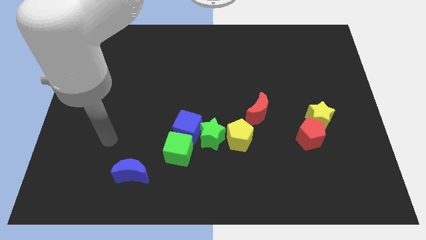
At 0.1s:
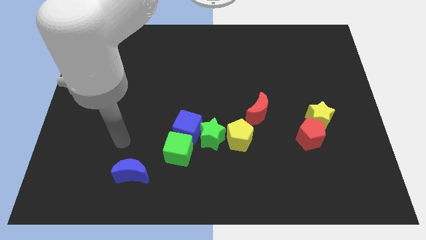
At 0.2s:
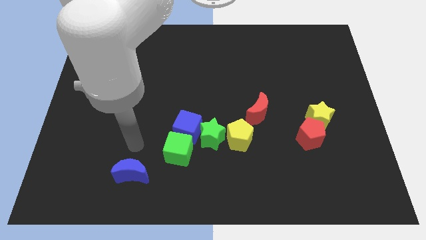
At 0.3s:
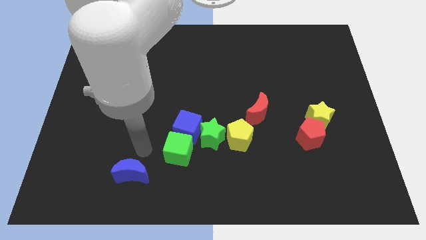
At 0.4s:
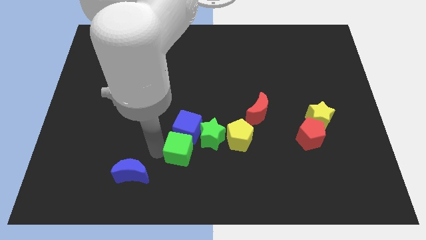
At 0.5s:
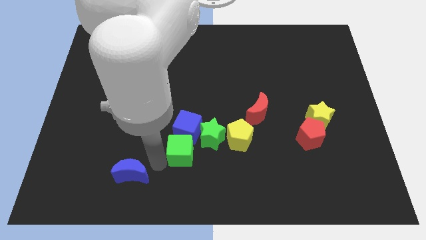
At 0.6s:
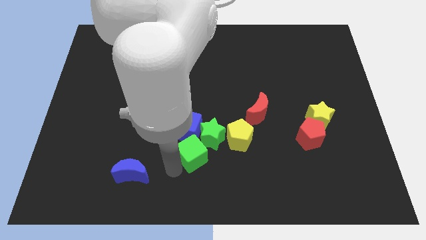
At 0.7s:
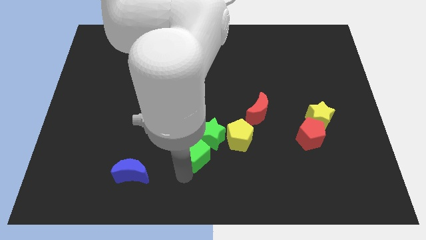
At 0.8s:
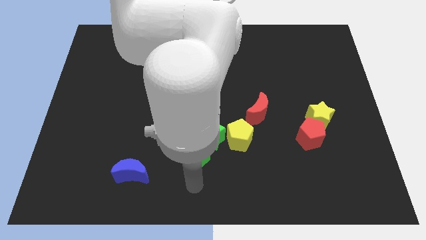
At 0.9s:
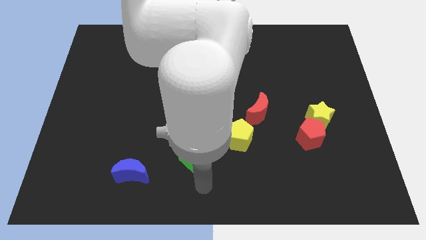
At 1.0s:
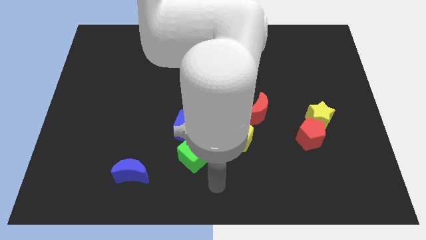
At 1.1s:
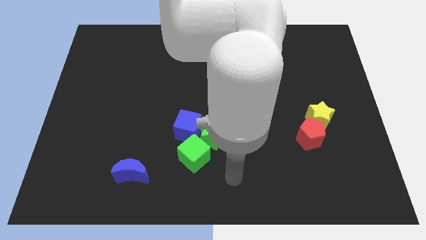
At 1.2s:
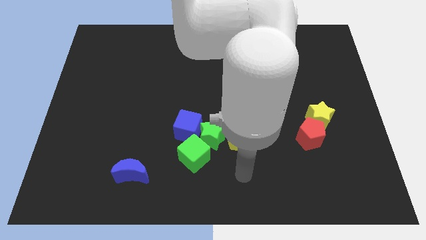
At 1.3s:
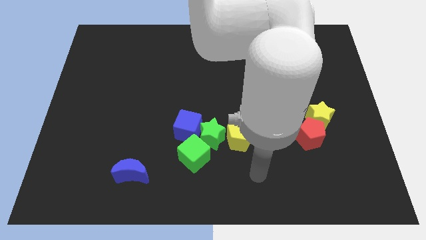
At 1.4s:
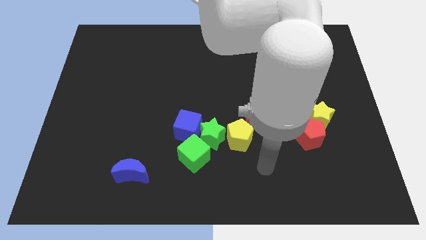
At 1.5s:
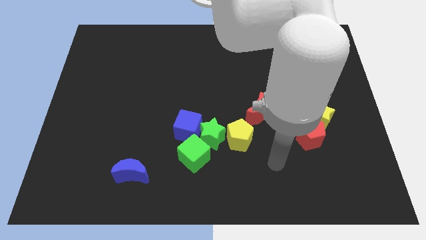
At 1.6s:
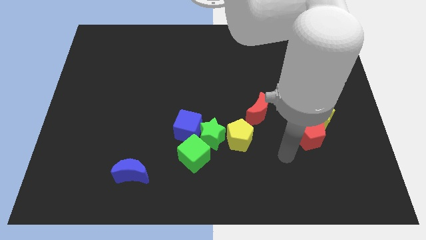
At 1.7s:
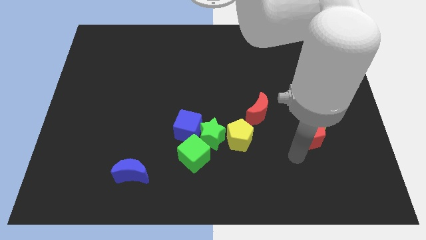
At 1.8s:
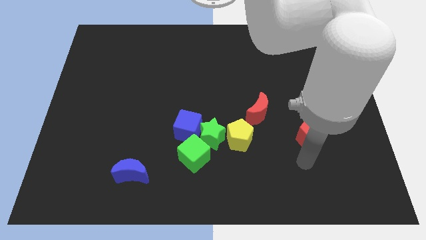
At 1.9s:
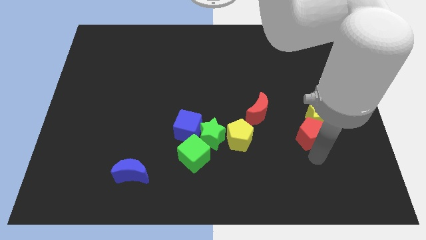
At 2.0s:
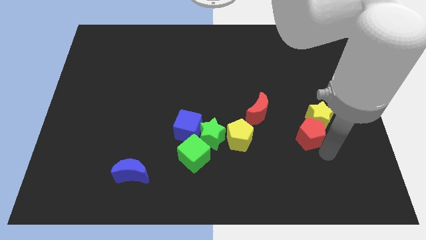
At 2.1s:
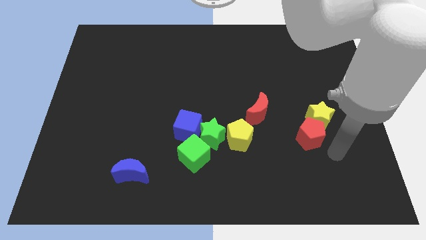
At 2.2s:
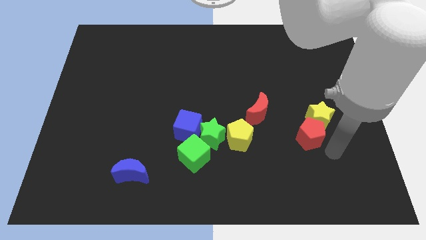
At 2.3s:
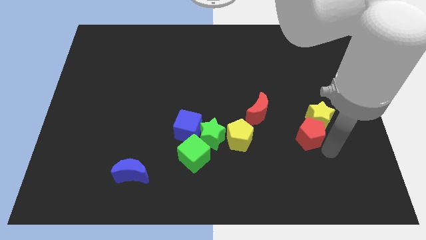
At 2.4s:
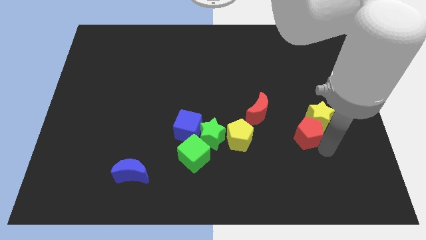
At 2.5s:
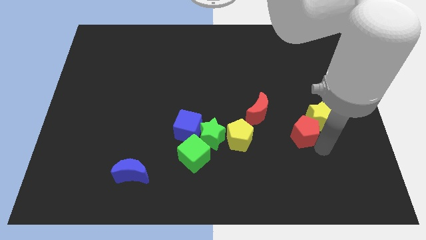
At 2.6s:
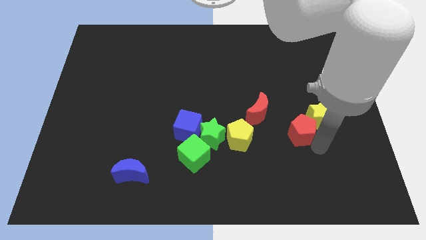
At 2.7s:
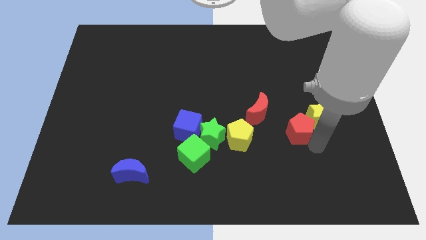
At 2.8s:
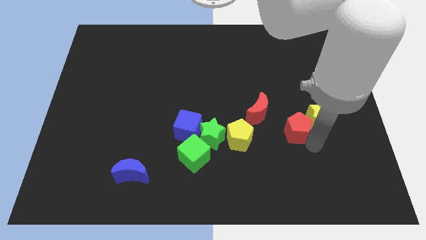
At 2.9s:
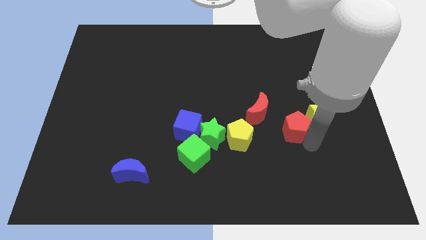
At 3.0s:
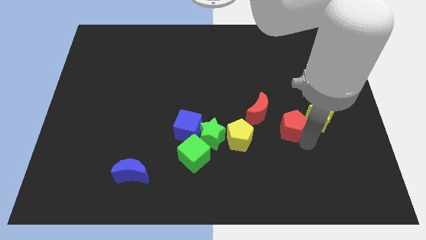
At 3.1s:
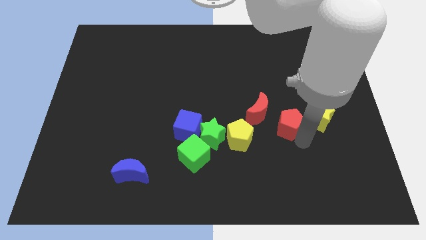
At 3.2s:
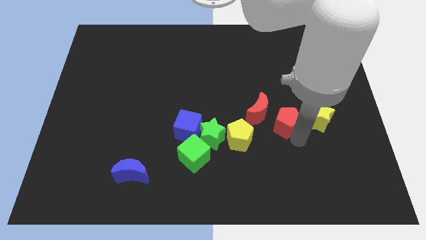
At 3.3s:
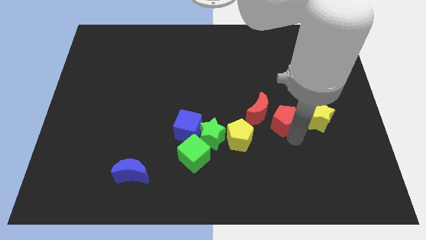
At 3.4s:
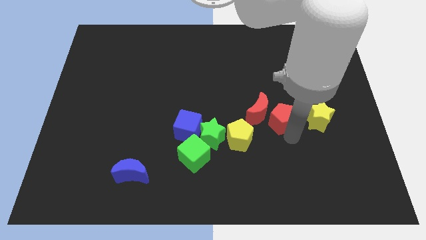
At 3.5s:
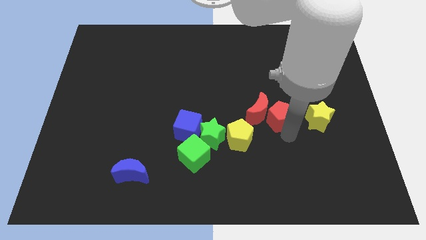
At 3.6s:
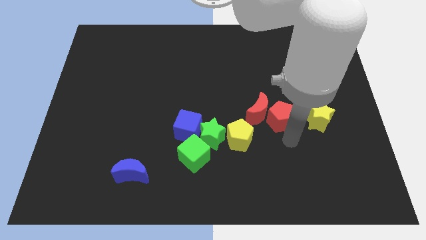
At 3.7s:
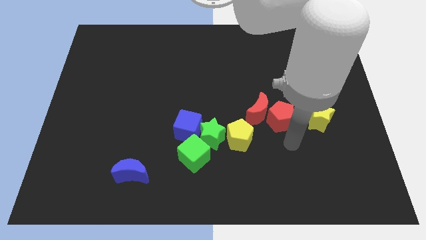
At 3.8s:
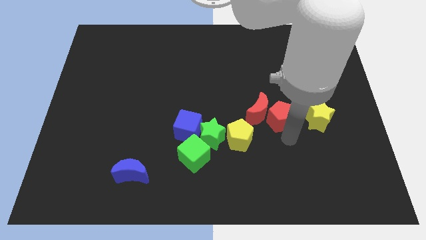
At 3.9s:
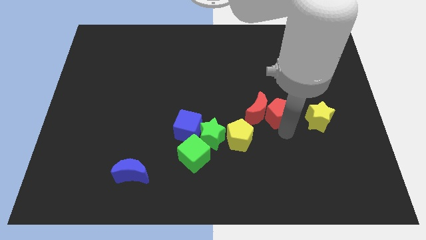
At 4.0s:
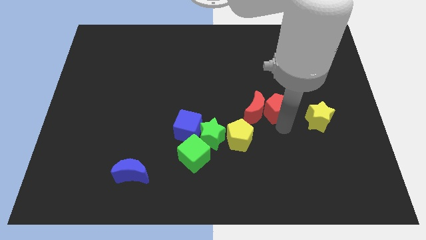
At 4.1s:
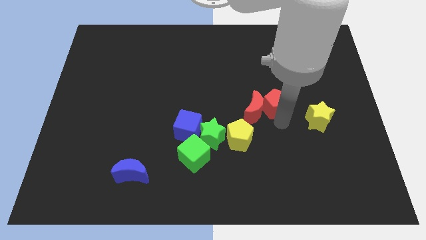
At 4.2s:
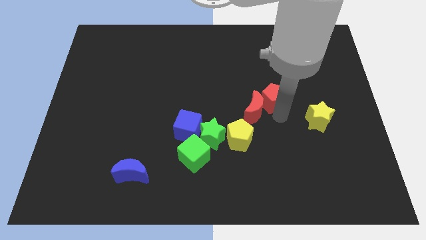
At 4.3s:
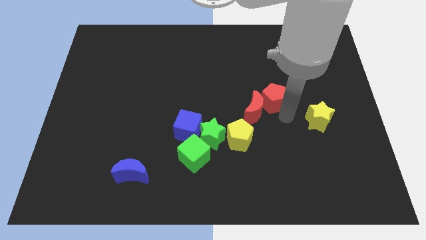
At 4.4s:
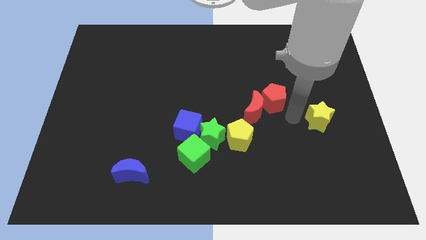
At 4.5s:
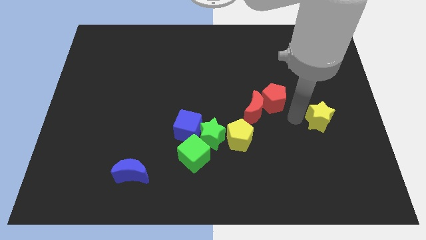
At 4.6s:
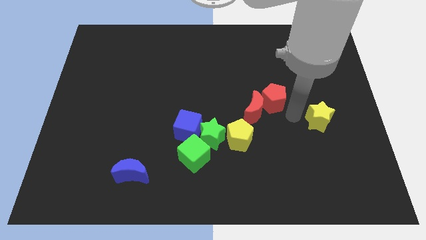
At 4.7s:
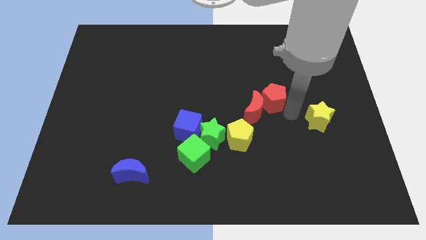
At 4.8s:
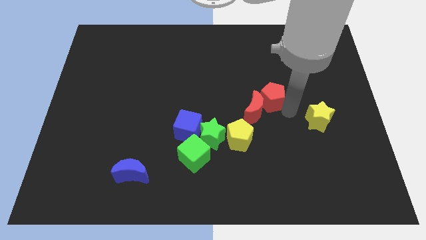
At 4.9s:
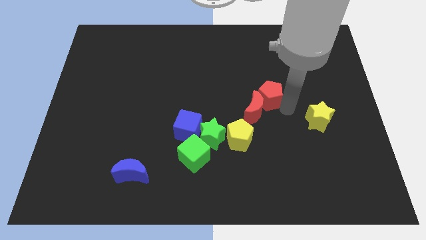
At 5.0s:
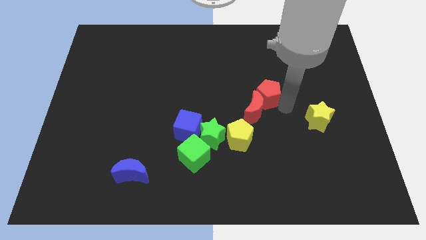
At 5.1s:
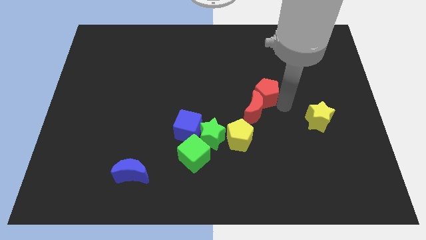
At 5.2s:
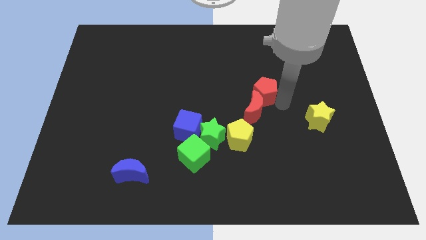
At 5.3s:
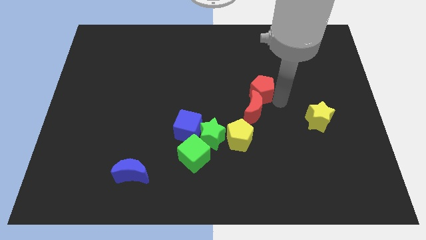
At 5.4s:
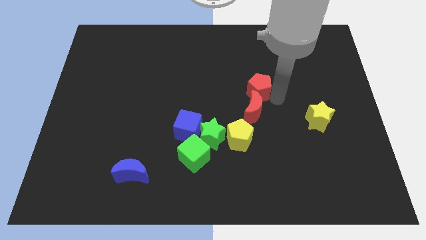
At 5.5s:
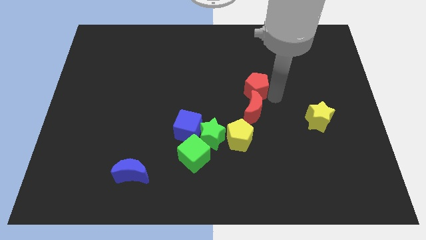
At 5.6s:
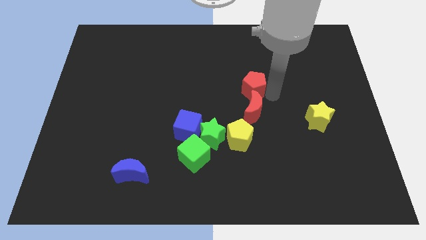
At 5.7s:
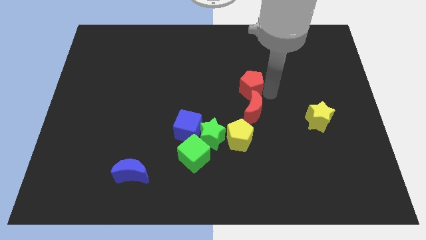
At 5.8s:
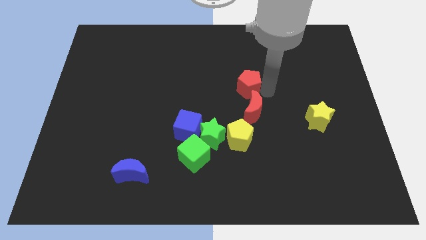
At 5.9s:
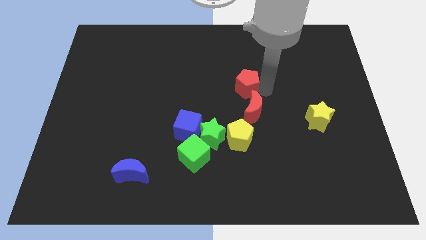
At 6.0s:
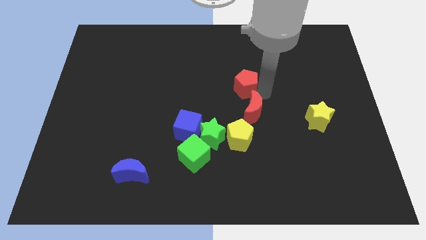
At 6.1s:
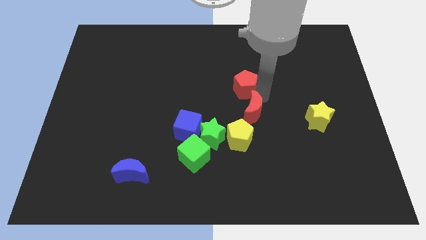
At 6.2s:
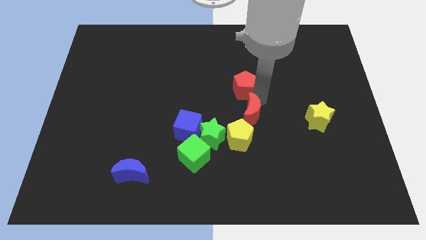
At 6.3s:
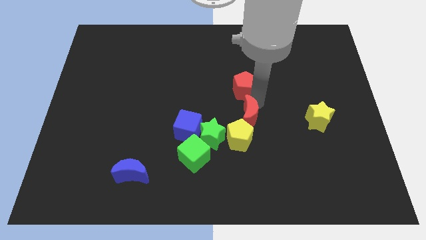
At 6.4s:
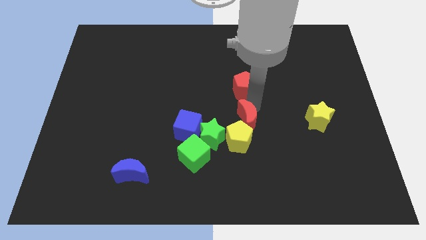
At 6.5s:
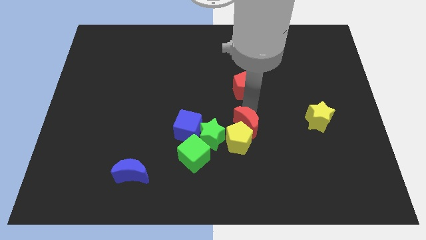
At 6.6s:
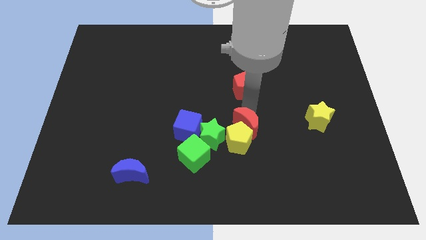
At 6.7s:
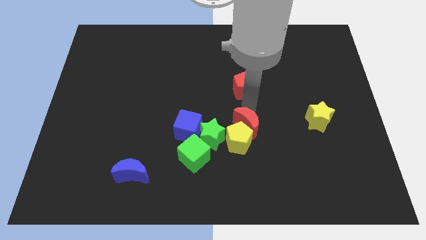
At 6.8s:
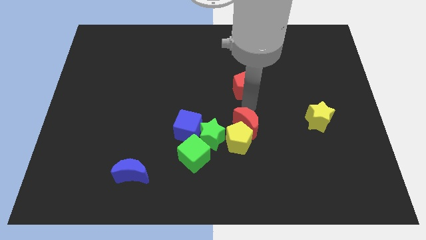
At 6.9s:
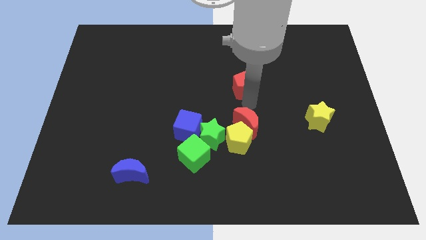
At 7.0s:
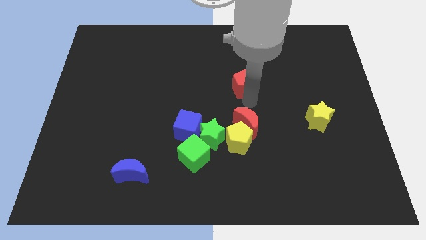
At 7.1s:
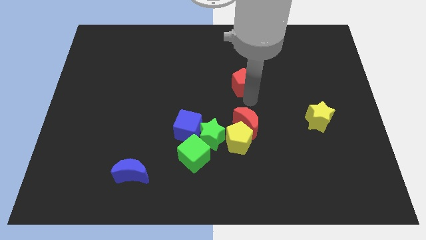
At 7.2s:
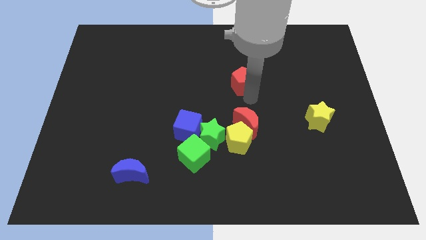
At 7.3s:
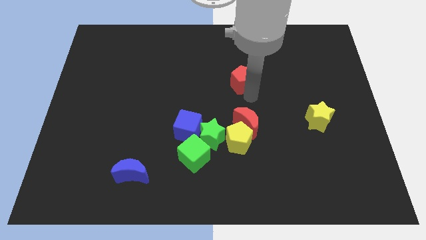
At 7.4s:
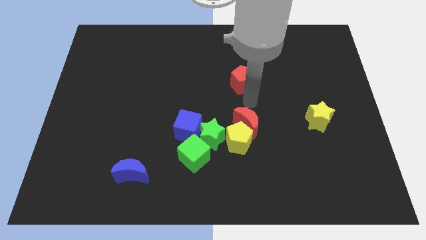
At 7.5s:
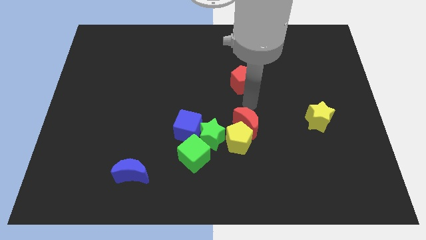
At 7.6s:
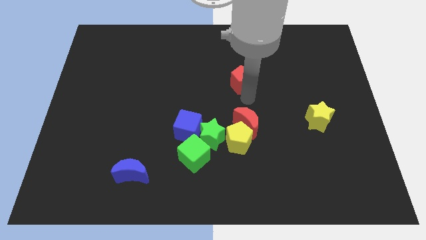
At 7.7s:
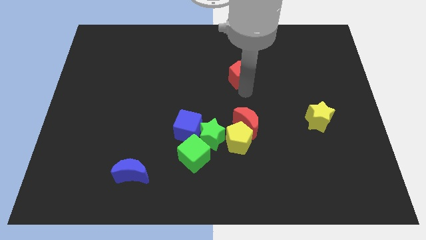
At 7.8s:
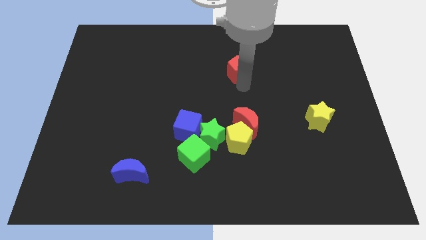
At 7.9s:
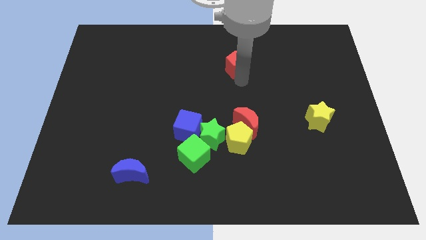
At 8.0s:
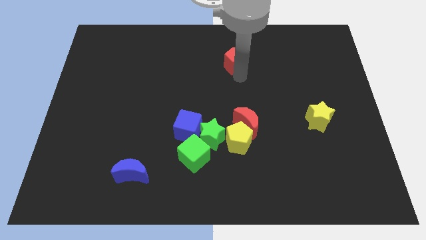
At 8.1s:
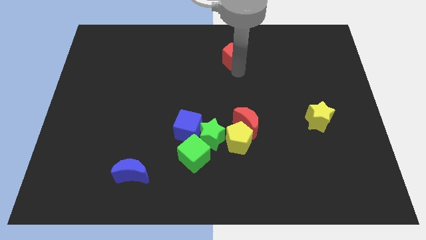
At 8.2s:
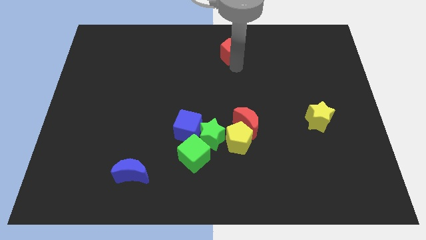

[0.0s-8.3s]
push the red pentagon to the top side
